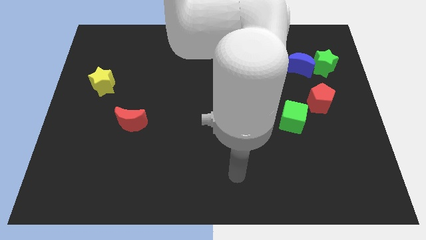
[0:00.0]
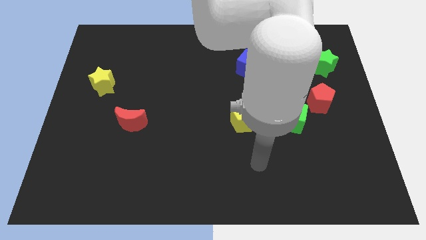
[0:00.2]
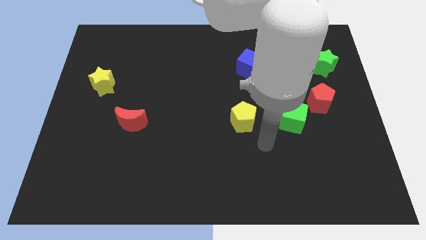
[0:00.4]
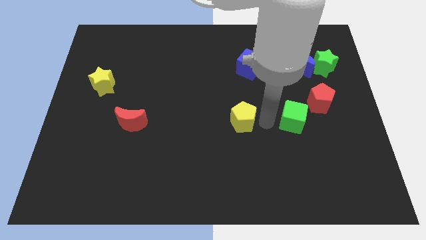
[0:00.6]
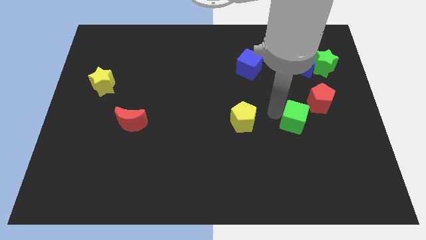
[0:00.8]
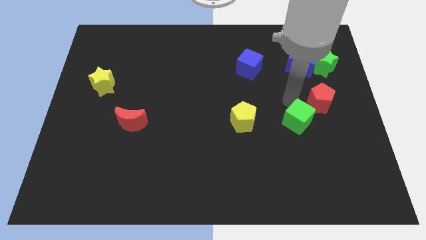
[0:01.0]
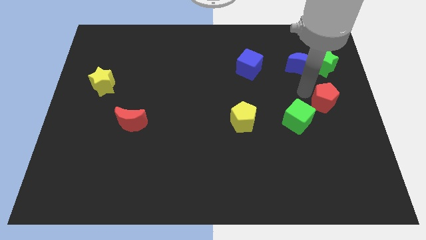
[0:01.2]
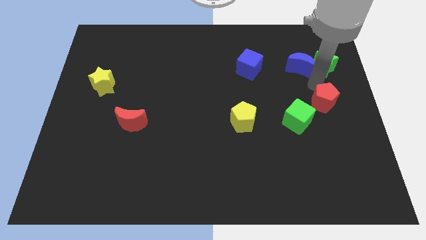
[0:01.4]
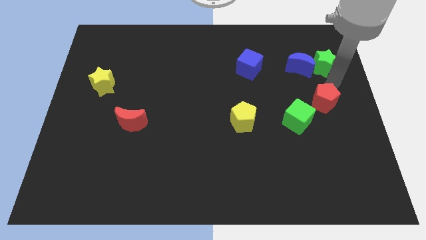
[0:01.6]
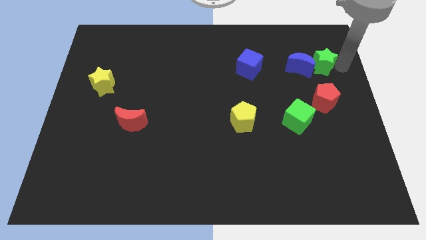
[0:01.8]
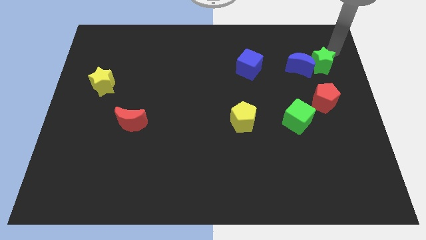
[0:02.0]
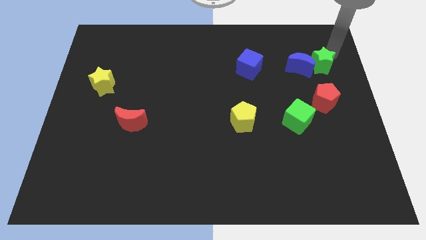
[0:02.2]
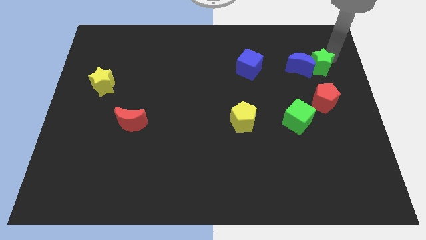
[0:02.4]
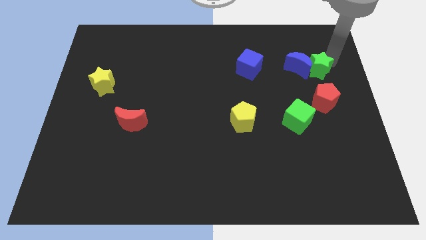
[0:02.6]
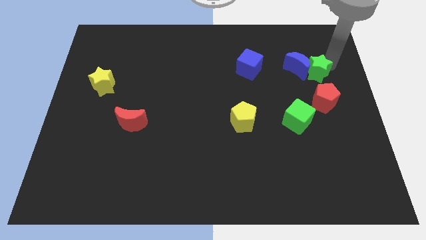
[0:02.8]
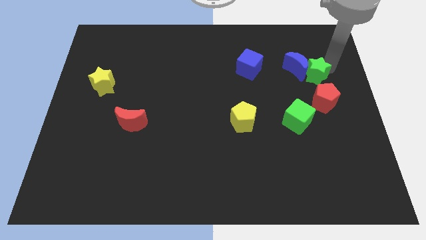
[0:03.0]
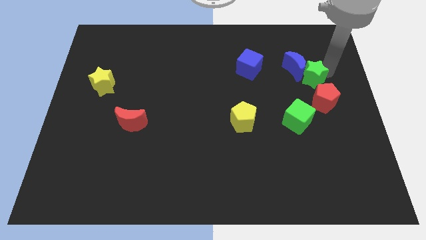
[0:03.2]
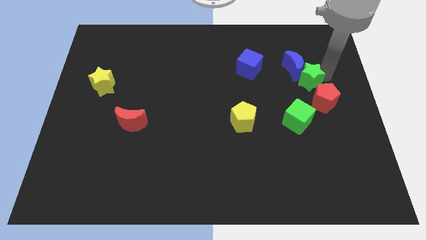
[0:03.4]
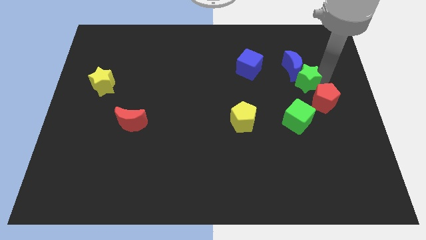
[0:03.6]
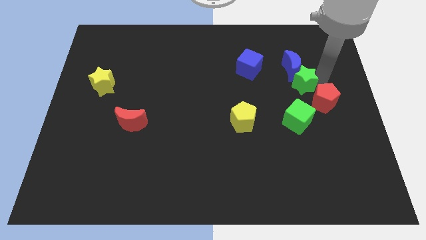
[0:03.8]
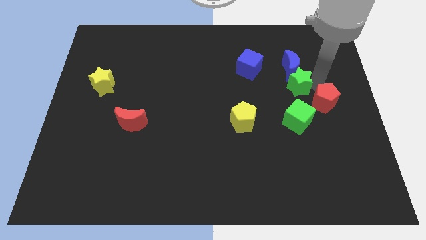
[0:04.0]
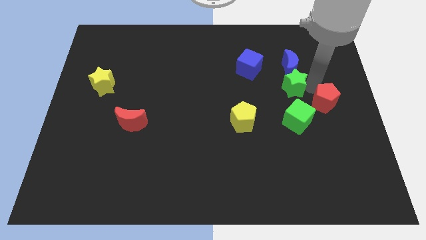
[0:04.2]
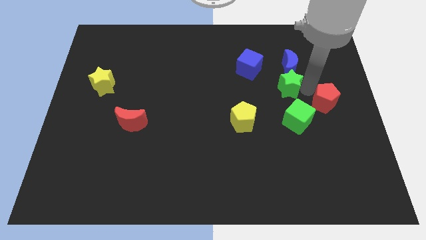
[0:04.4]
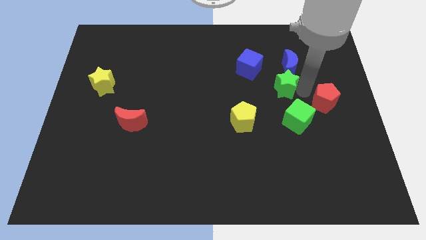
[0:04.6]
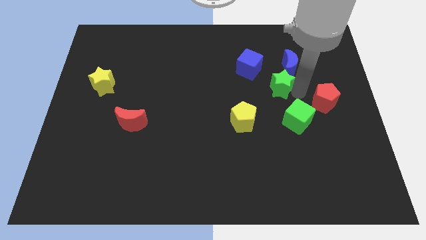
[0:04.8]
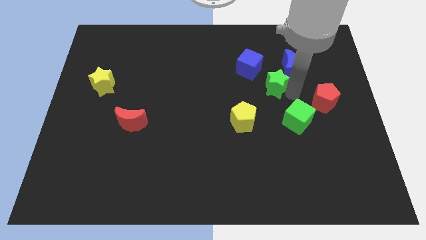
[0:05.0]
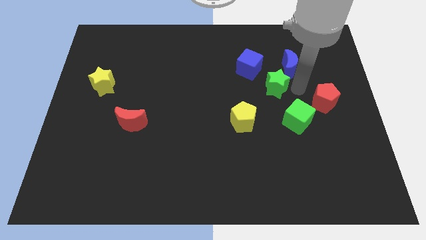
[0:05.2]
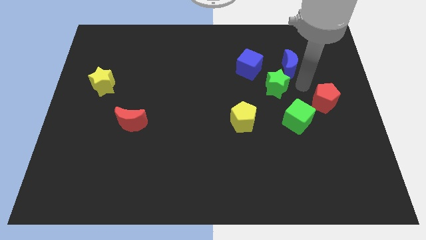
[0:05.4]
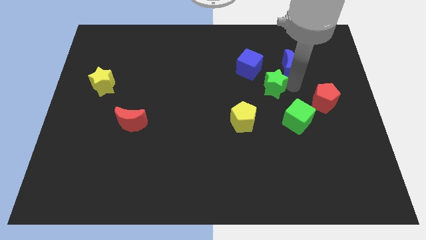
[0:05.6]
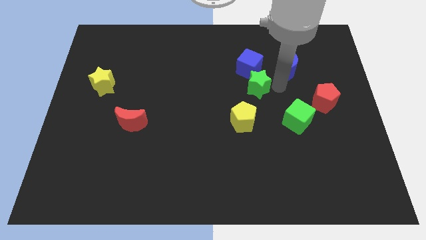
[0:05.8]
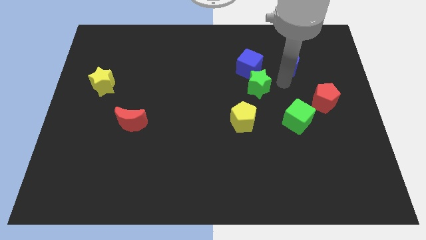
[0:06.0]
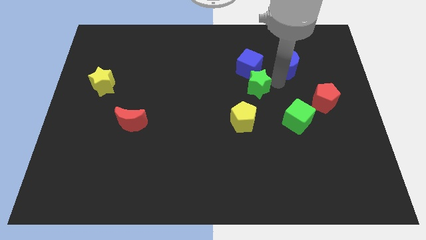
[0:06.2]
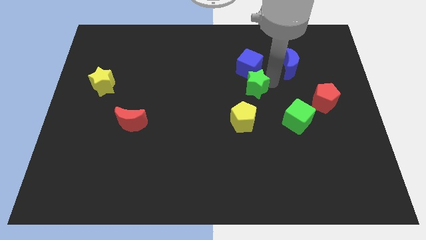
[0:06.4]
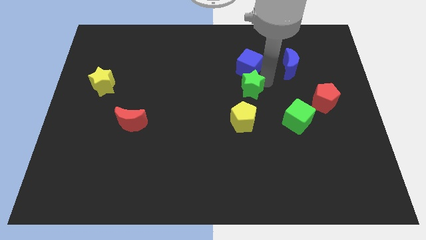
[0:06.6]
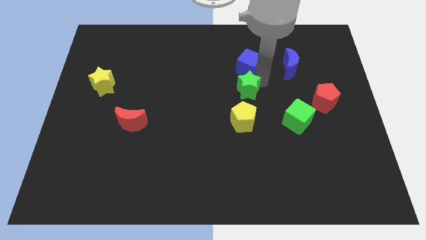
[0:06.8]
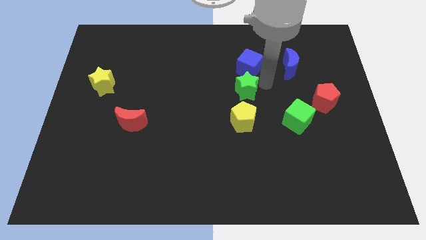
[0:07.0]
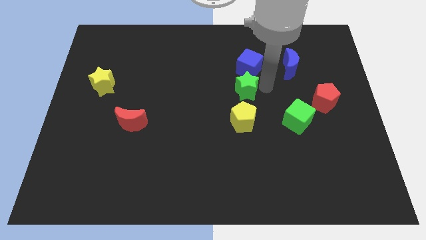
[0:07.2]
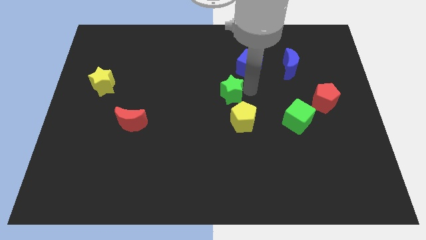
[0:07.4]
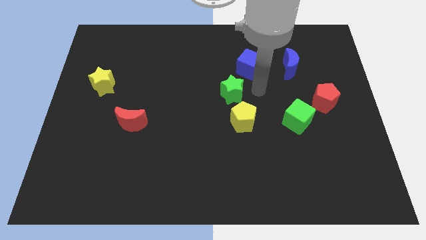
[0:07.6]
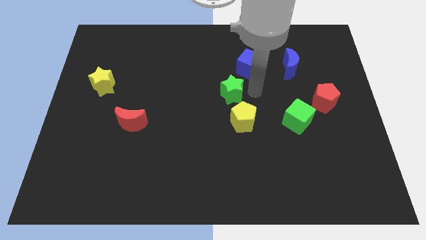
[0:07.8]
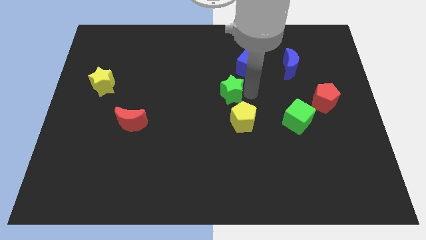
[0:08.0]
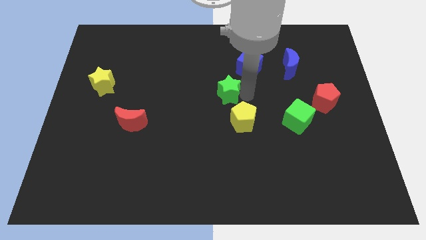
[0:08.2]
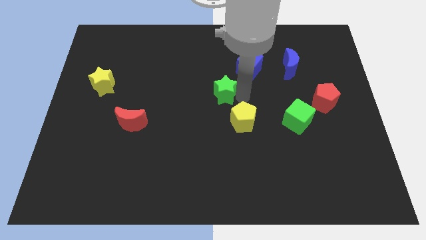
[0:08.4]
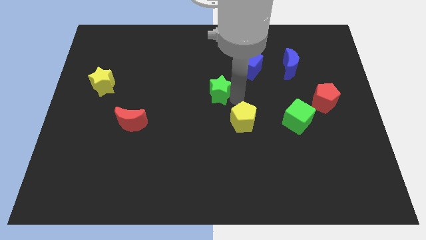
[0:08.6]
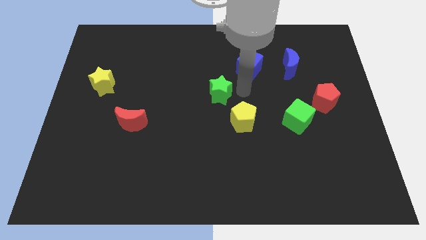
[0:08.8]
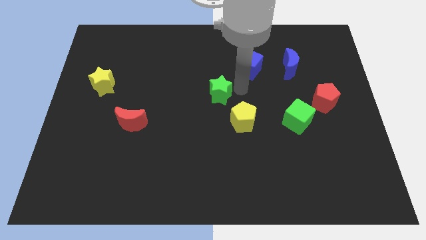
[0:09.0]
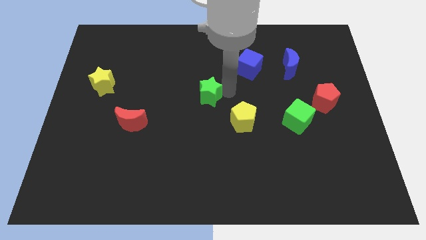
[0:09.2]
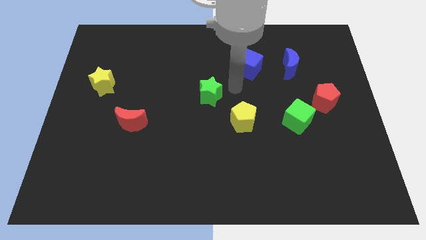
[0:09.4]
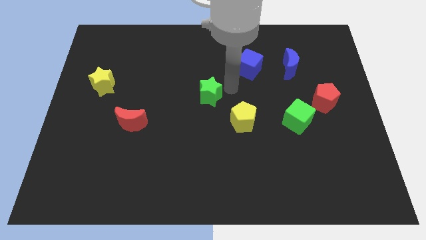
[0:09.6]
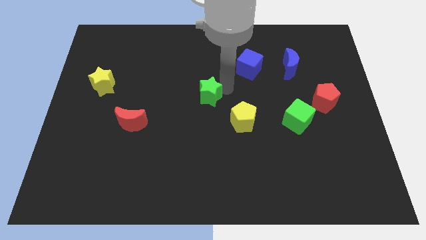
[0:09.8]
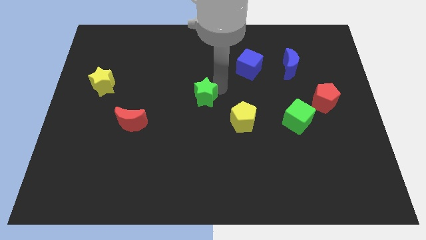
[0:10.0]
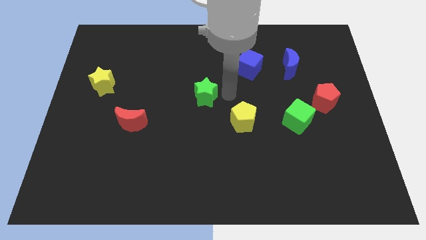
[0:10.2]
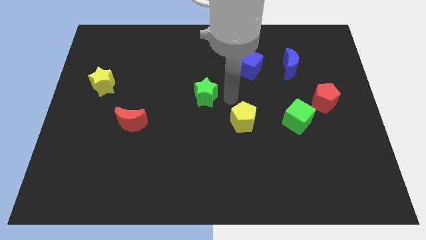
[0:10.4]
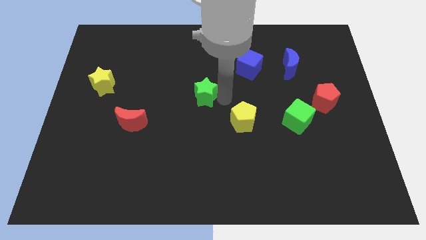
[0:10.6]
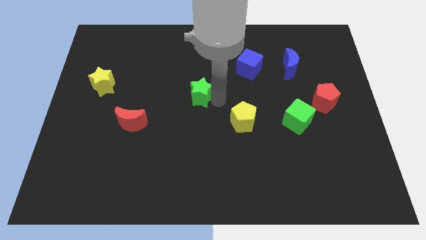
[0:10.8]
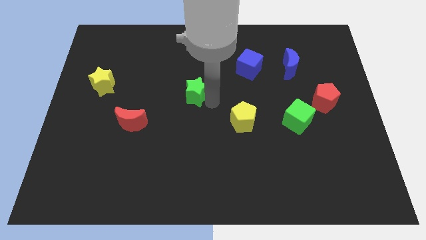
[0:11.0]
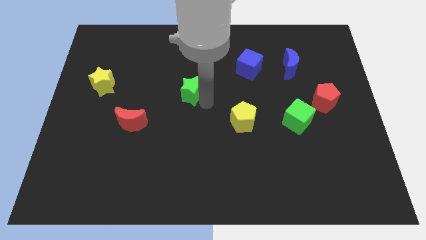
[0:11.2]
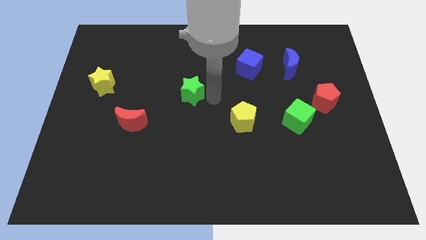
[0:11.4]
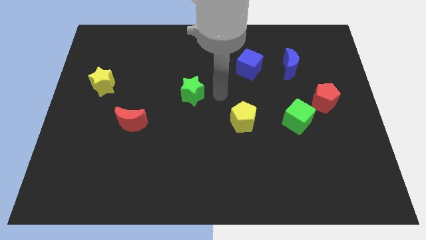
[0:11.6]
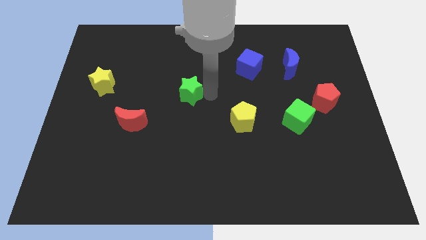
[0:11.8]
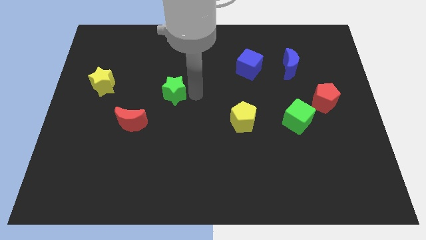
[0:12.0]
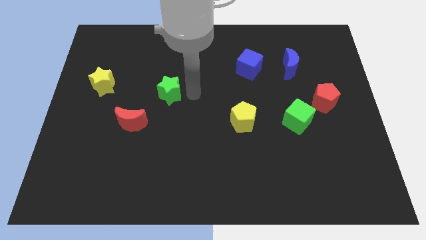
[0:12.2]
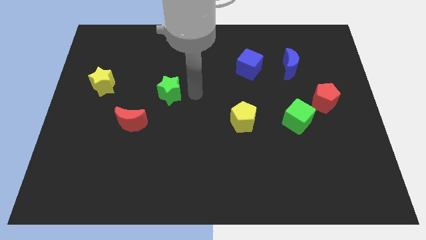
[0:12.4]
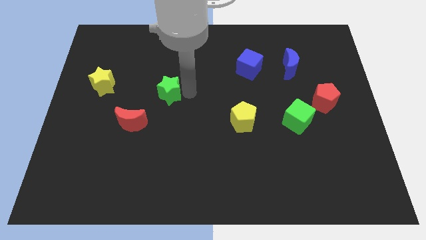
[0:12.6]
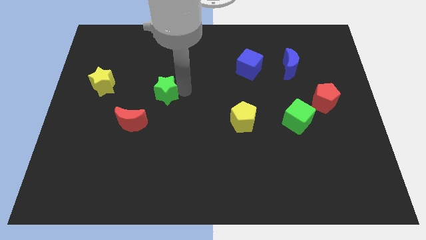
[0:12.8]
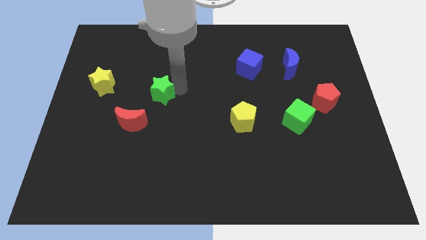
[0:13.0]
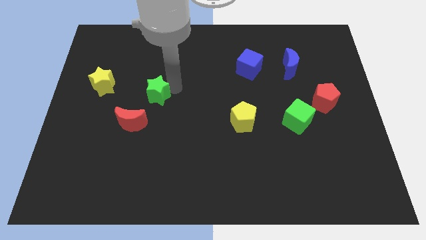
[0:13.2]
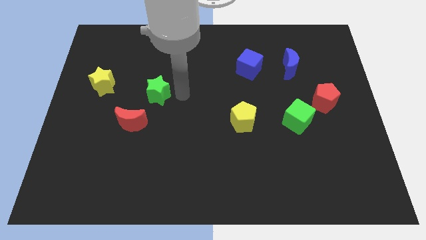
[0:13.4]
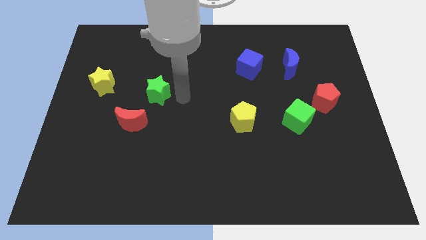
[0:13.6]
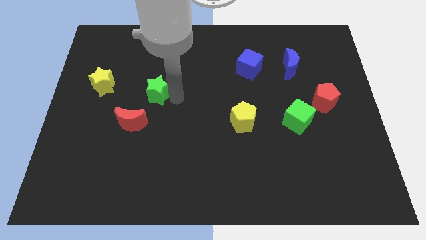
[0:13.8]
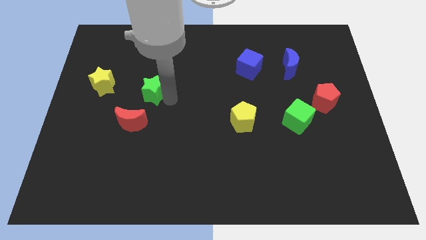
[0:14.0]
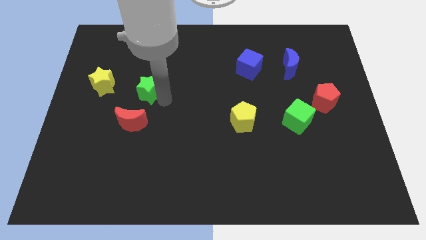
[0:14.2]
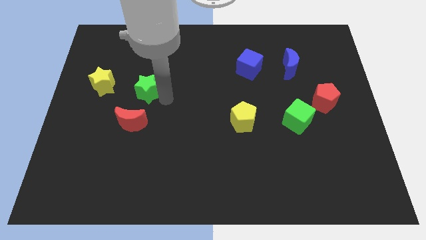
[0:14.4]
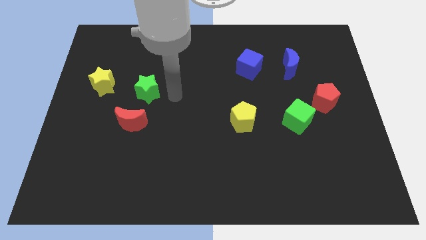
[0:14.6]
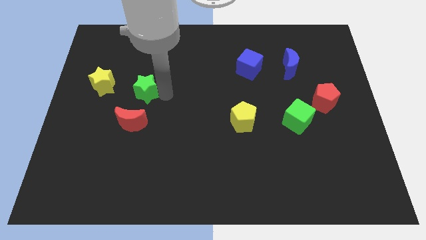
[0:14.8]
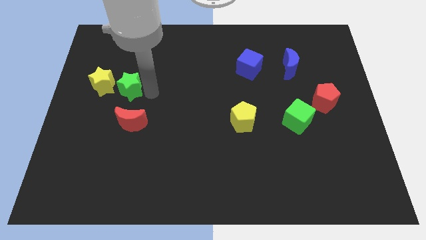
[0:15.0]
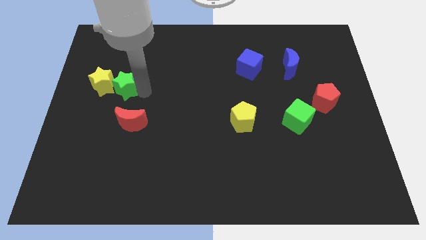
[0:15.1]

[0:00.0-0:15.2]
push the green star towards the yellow star
